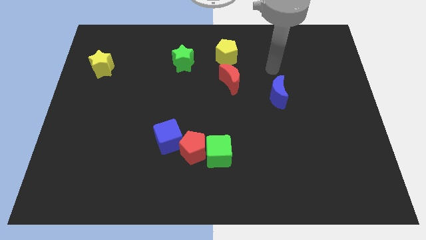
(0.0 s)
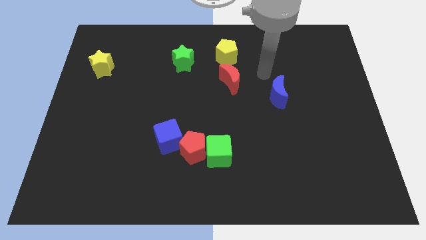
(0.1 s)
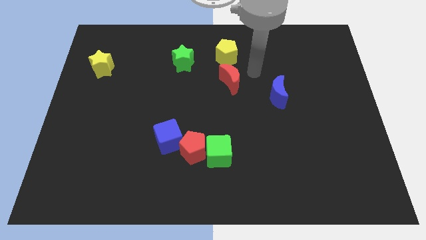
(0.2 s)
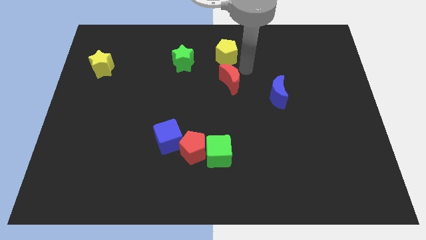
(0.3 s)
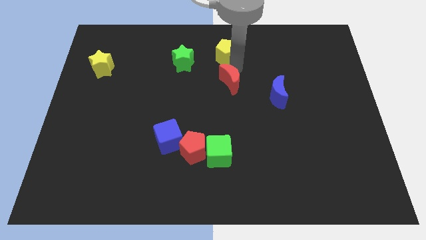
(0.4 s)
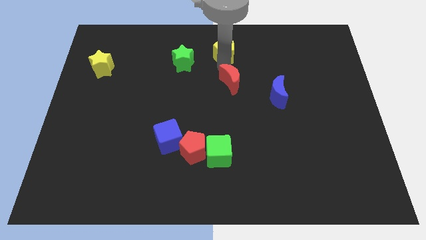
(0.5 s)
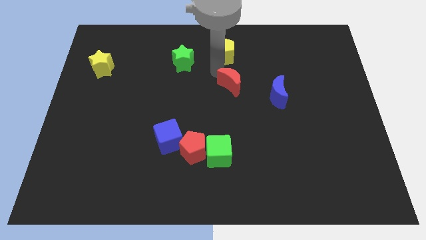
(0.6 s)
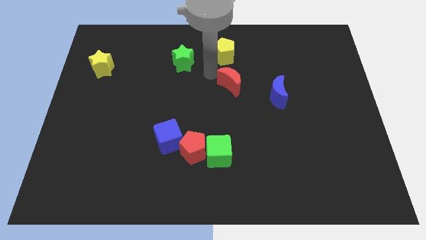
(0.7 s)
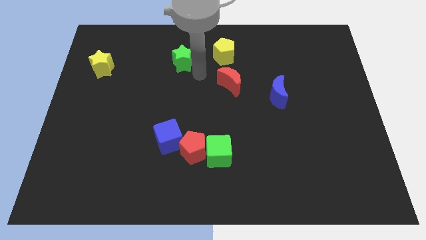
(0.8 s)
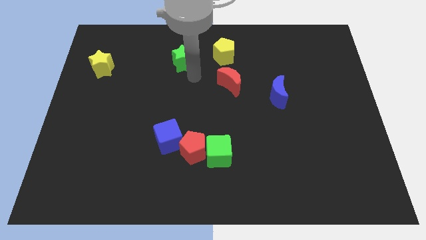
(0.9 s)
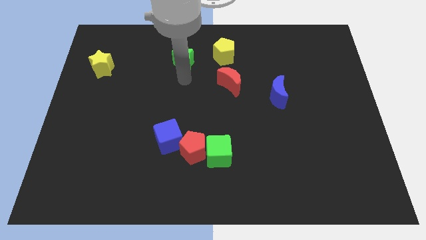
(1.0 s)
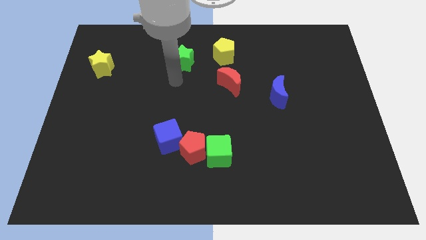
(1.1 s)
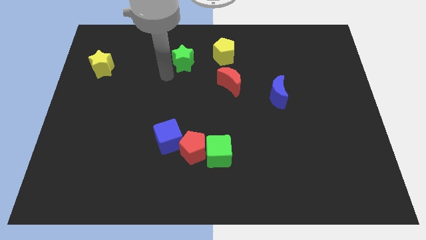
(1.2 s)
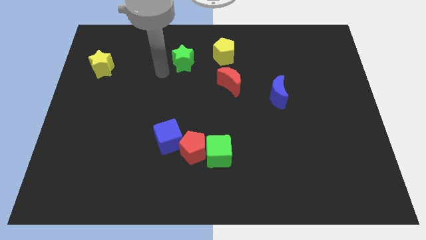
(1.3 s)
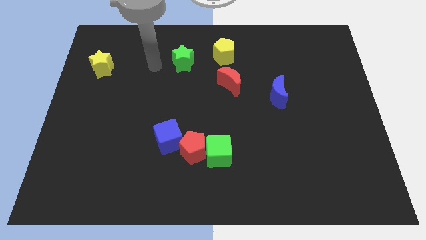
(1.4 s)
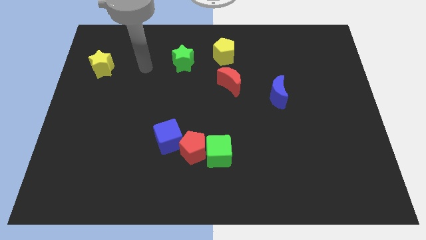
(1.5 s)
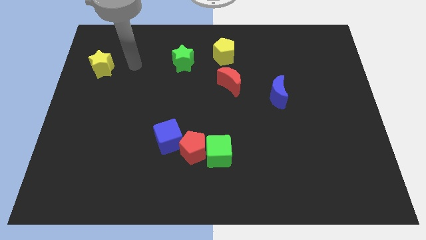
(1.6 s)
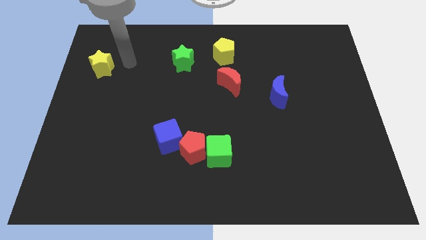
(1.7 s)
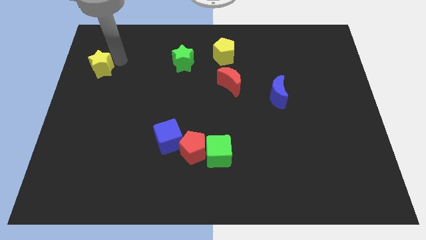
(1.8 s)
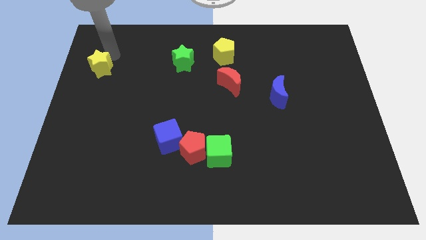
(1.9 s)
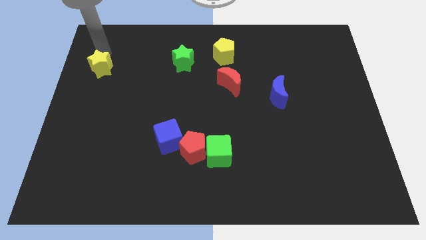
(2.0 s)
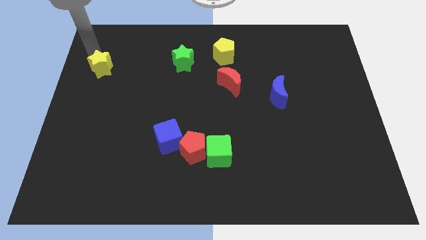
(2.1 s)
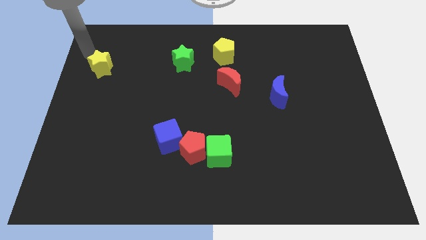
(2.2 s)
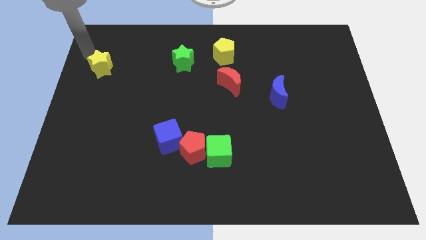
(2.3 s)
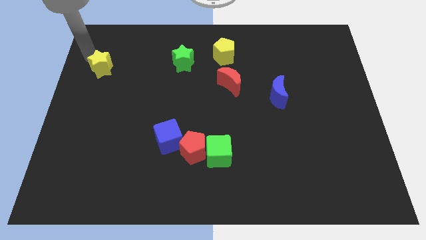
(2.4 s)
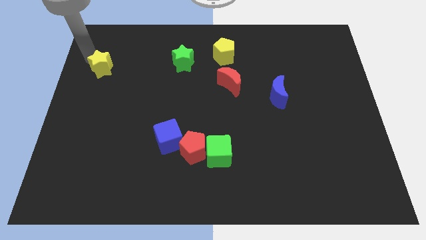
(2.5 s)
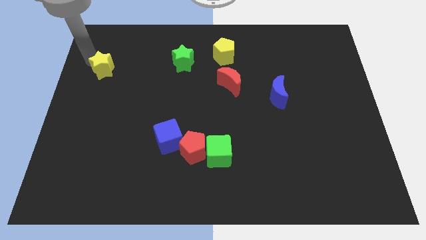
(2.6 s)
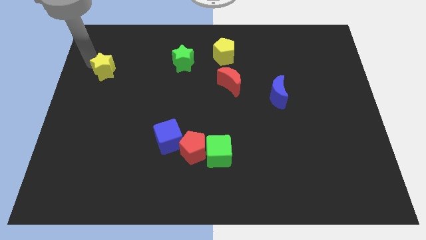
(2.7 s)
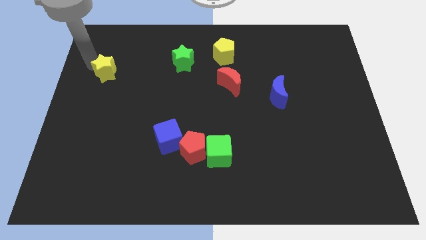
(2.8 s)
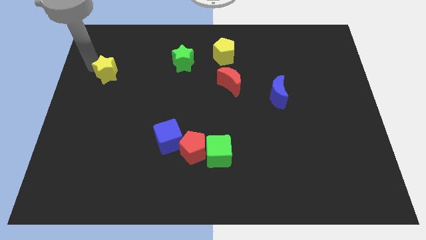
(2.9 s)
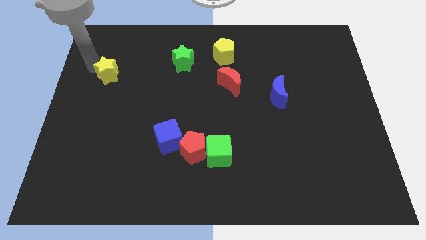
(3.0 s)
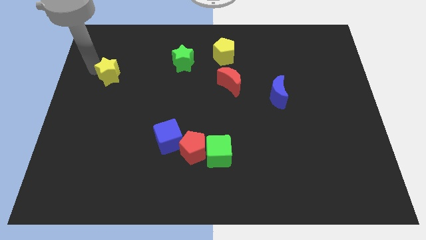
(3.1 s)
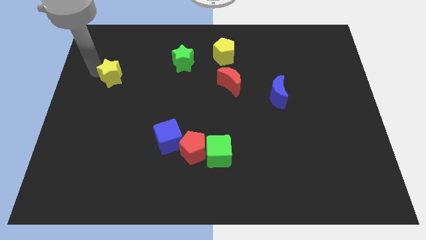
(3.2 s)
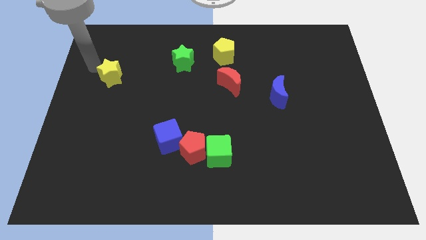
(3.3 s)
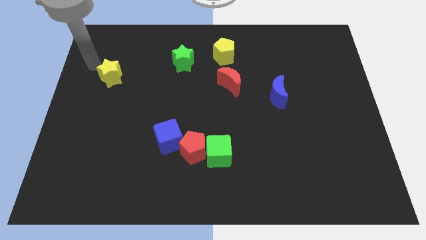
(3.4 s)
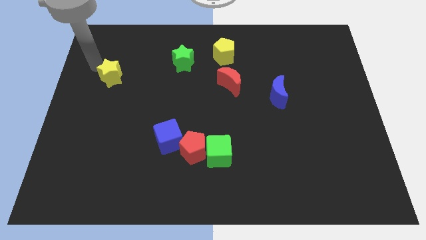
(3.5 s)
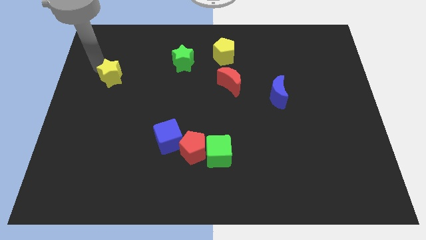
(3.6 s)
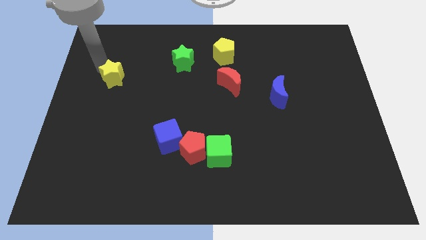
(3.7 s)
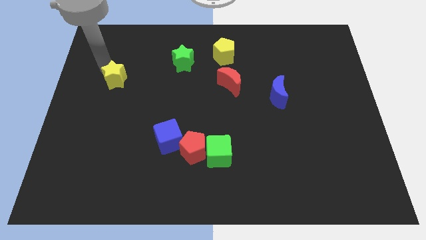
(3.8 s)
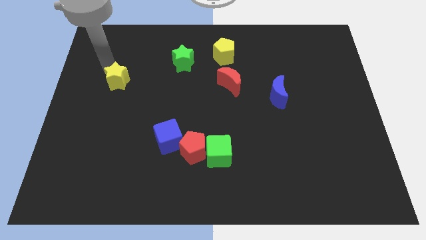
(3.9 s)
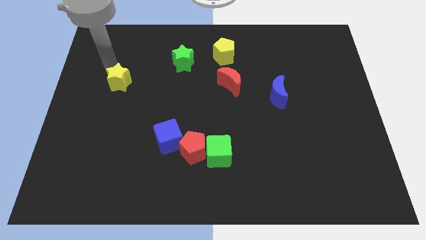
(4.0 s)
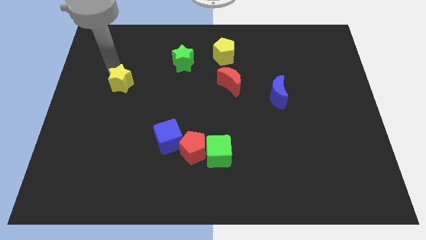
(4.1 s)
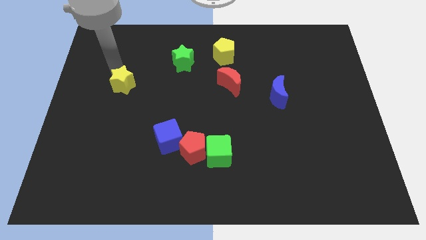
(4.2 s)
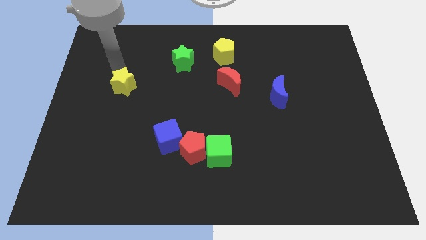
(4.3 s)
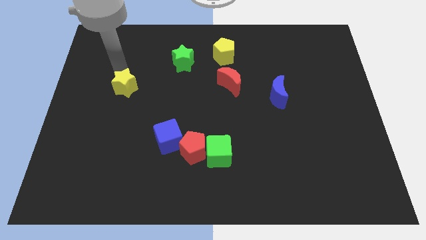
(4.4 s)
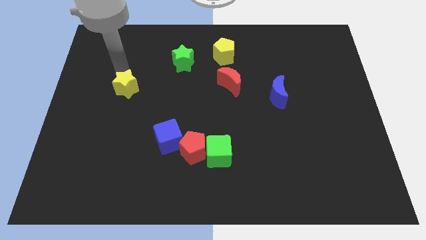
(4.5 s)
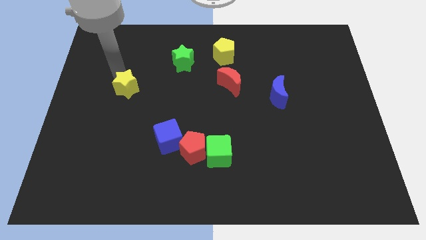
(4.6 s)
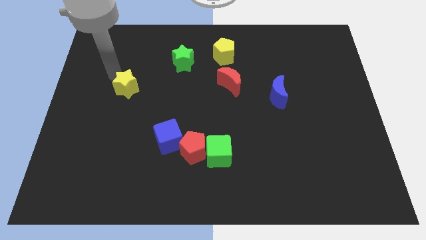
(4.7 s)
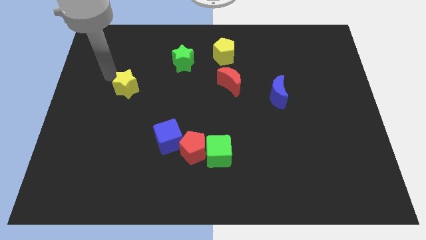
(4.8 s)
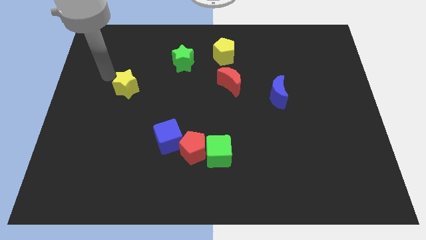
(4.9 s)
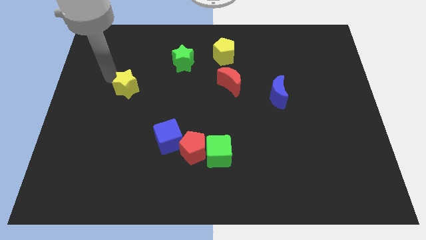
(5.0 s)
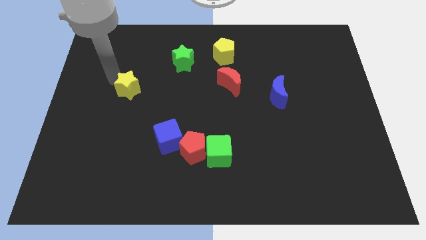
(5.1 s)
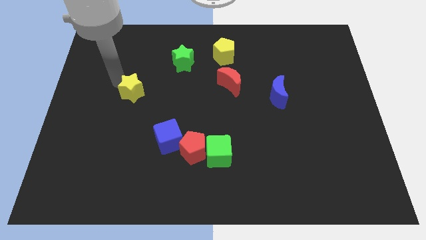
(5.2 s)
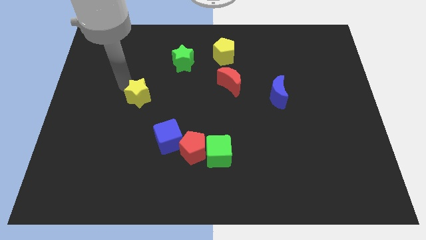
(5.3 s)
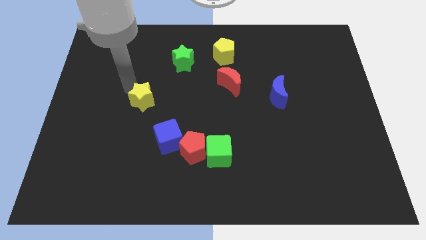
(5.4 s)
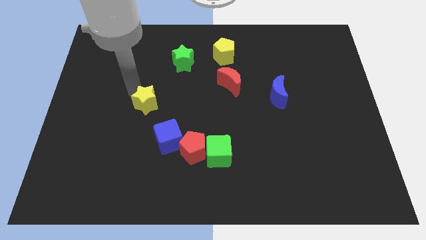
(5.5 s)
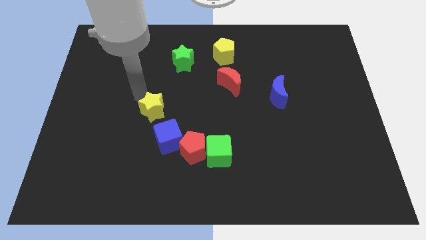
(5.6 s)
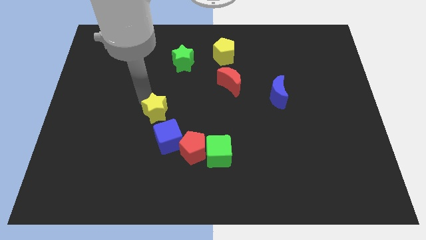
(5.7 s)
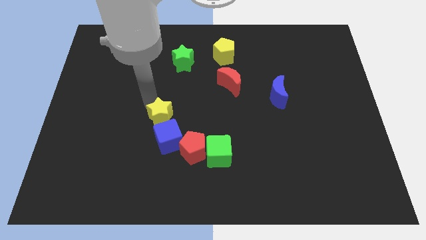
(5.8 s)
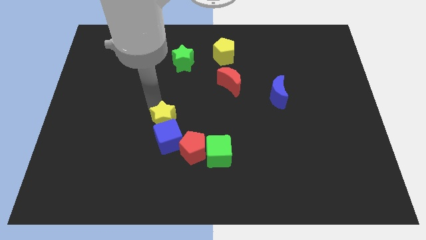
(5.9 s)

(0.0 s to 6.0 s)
move the yellow star close to the blue cube

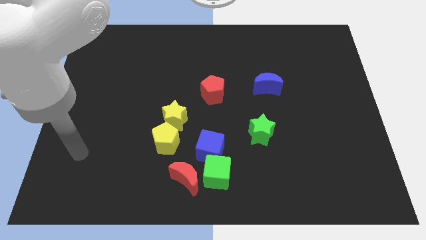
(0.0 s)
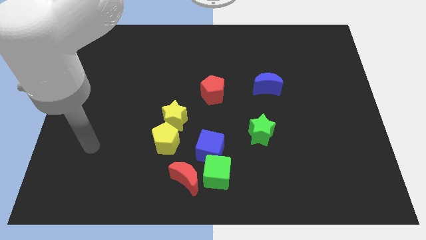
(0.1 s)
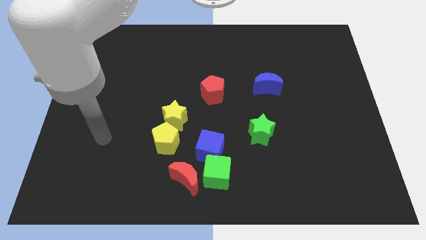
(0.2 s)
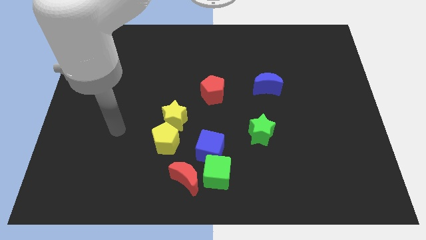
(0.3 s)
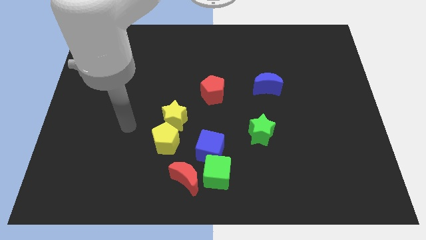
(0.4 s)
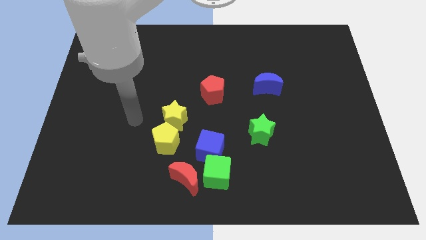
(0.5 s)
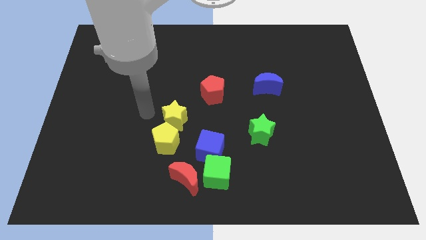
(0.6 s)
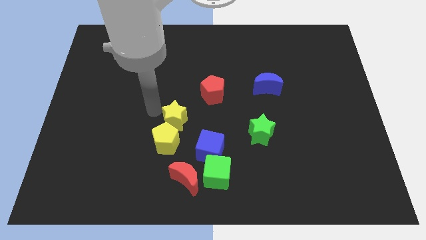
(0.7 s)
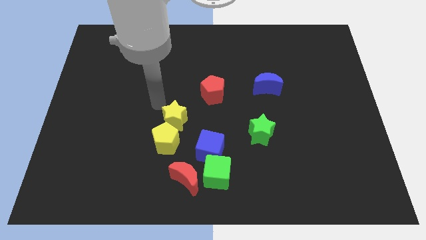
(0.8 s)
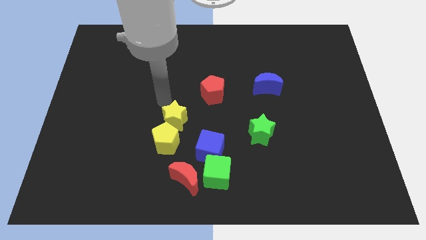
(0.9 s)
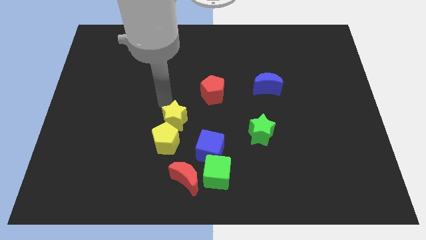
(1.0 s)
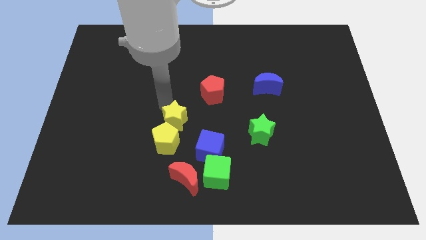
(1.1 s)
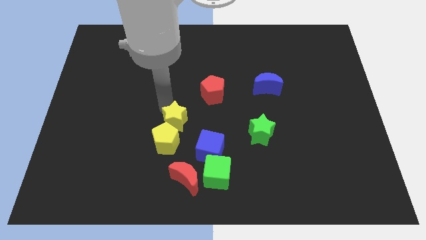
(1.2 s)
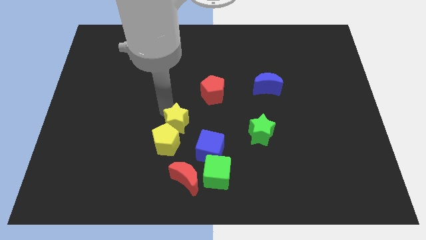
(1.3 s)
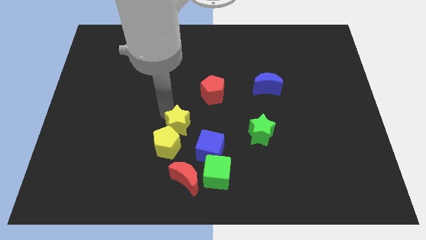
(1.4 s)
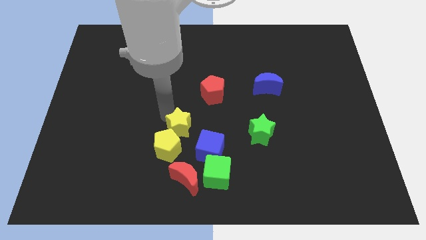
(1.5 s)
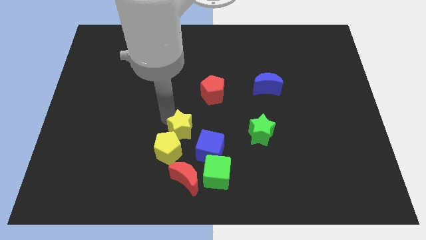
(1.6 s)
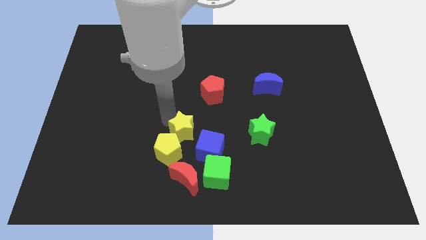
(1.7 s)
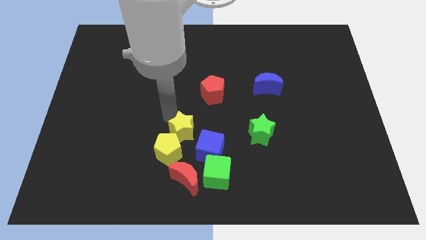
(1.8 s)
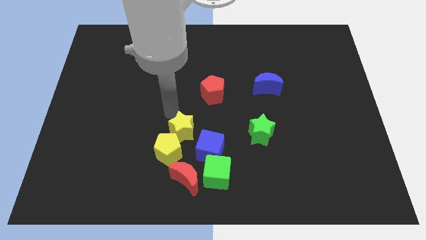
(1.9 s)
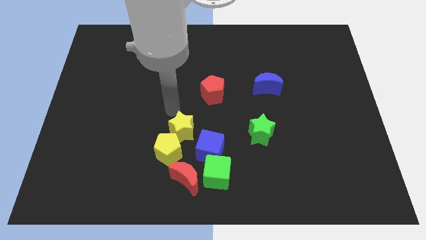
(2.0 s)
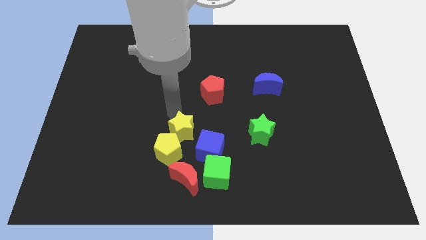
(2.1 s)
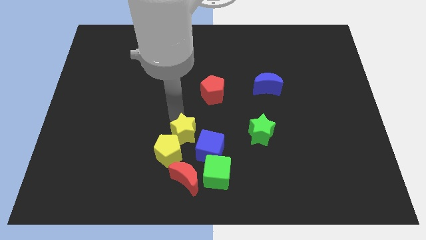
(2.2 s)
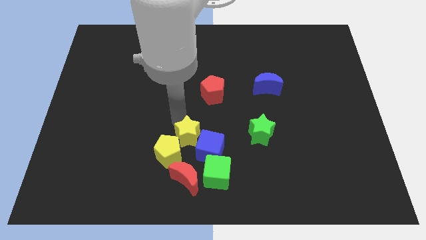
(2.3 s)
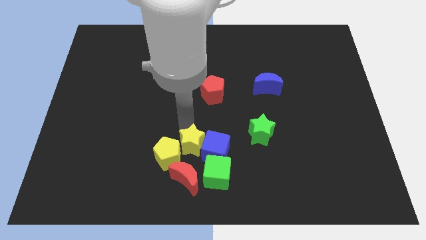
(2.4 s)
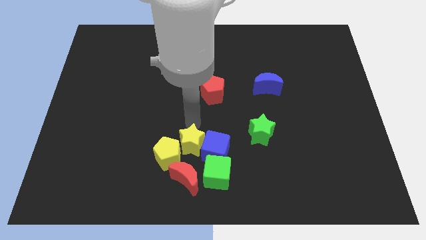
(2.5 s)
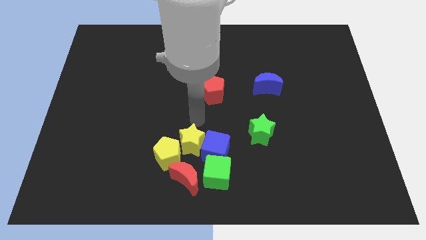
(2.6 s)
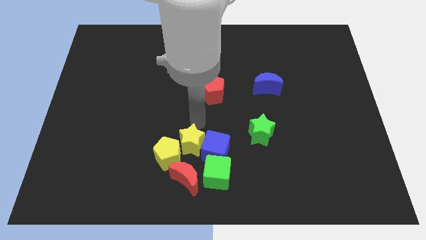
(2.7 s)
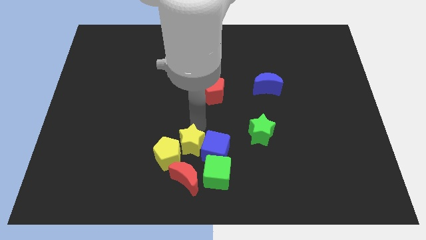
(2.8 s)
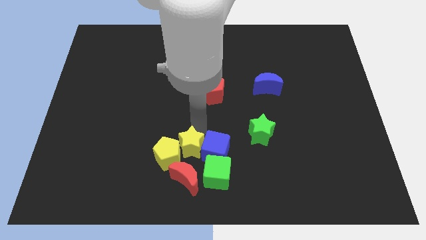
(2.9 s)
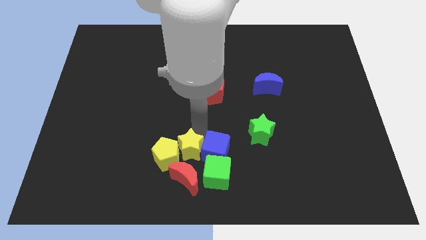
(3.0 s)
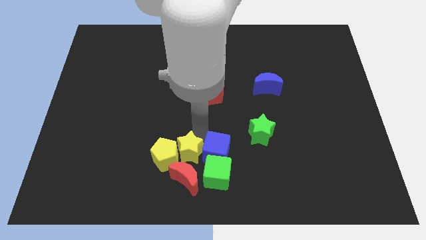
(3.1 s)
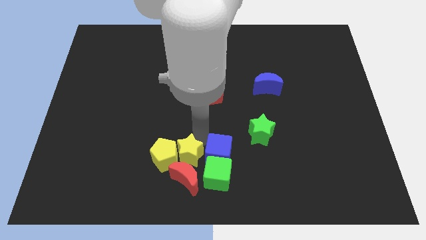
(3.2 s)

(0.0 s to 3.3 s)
slide the yellow star towards the red moon
